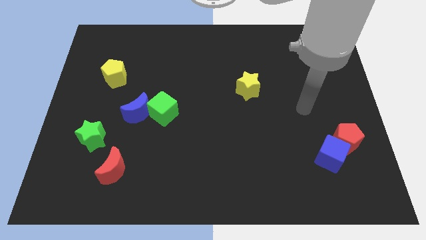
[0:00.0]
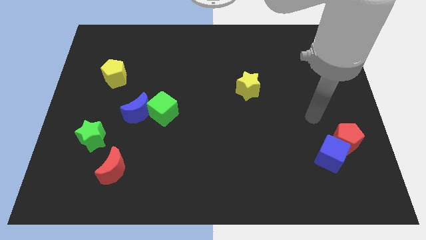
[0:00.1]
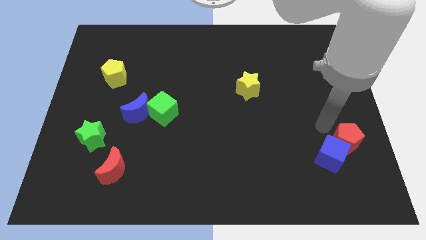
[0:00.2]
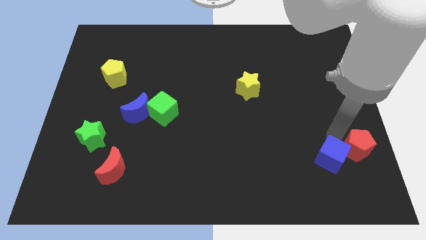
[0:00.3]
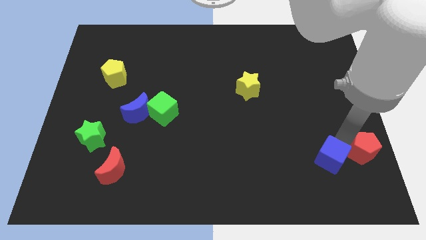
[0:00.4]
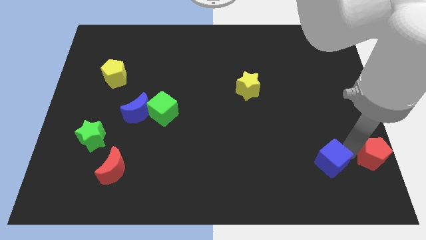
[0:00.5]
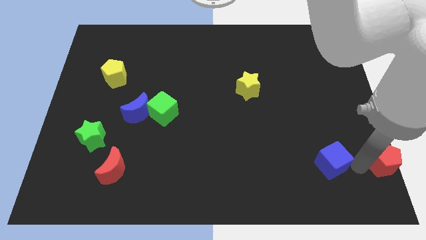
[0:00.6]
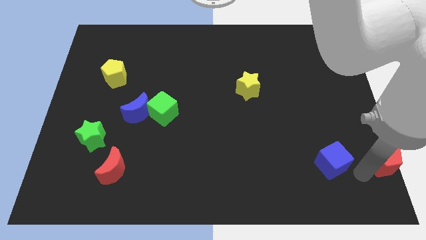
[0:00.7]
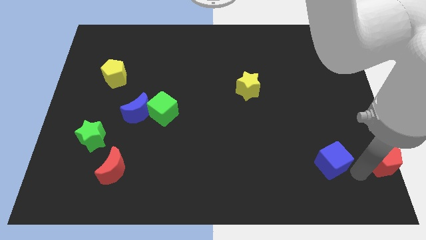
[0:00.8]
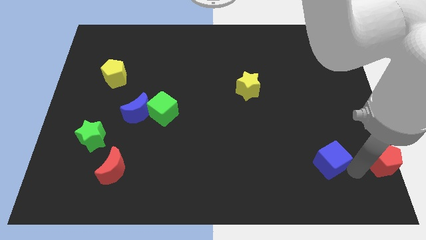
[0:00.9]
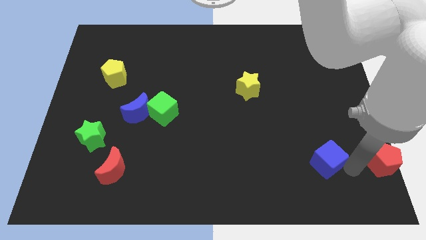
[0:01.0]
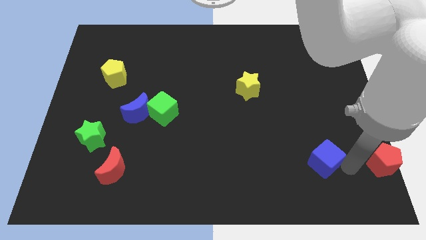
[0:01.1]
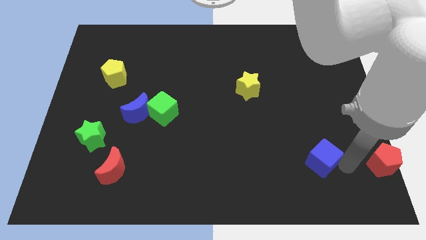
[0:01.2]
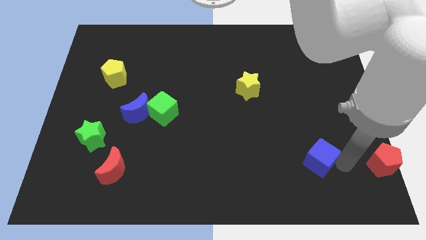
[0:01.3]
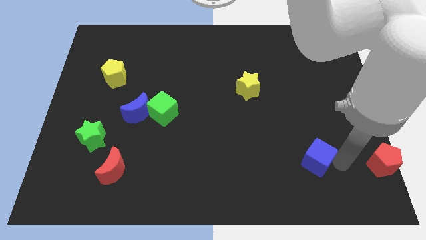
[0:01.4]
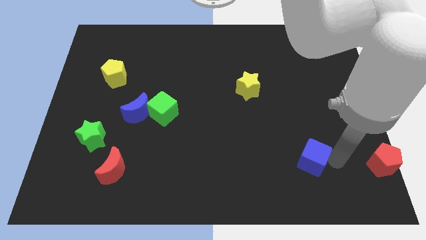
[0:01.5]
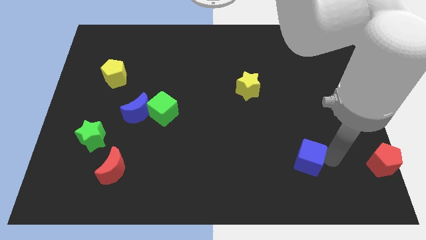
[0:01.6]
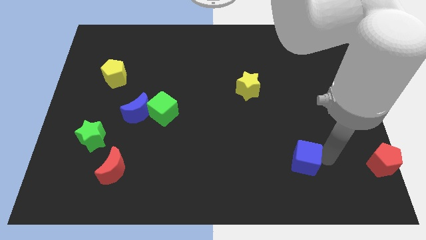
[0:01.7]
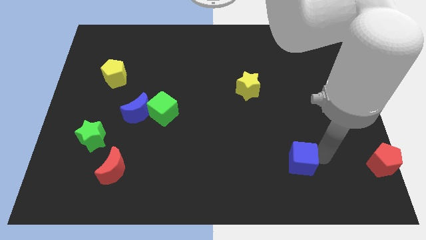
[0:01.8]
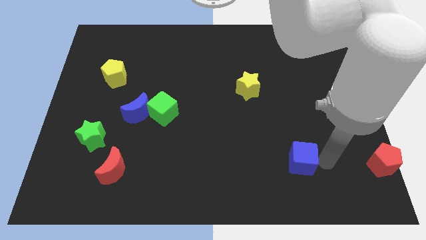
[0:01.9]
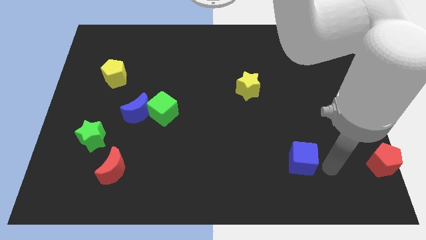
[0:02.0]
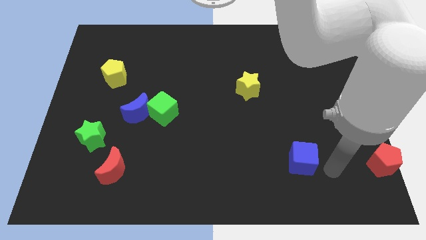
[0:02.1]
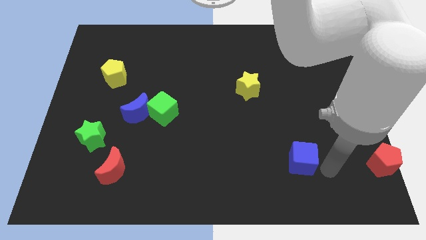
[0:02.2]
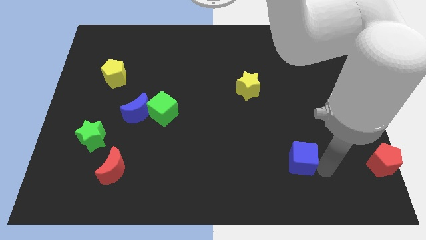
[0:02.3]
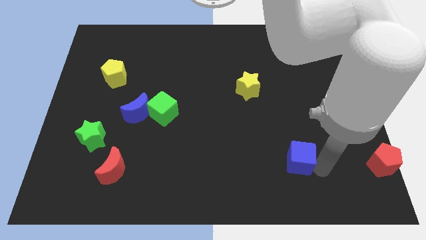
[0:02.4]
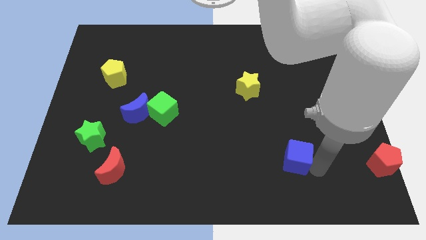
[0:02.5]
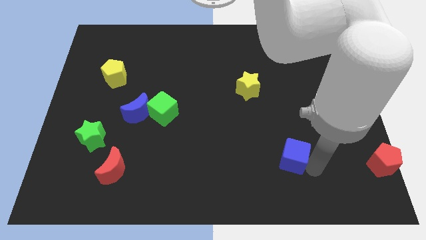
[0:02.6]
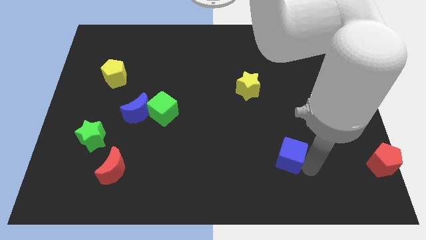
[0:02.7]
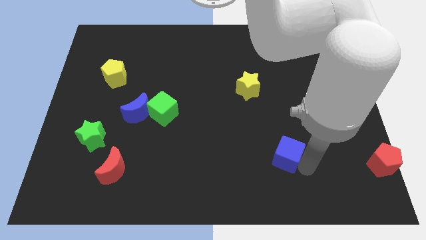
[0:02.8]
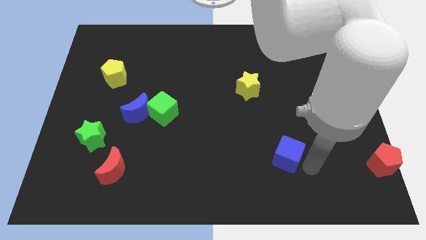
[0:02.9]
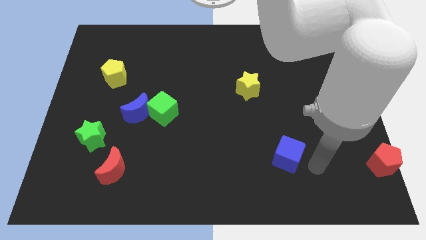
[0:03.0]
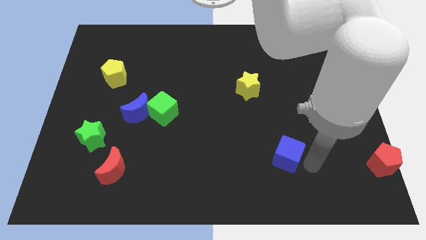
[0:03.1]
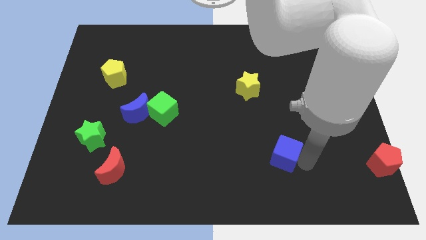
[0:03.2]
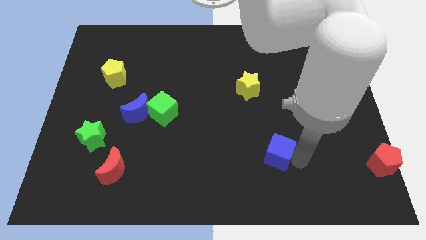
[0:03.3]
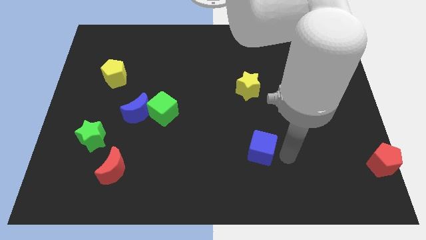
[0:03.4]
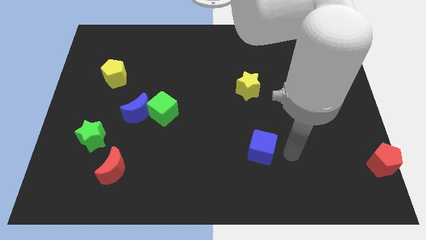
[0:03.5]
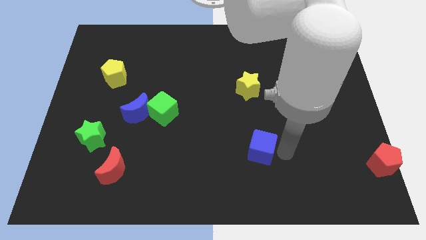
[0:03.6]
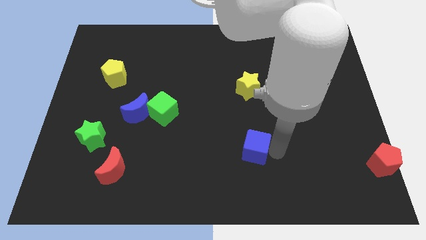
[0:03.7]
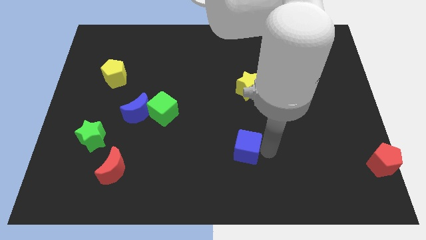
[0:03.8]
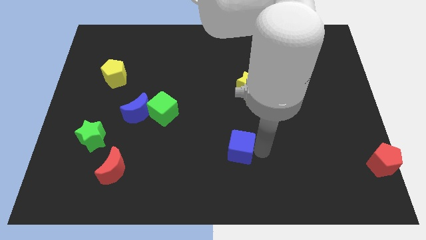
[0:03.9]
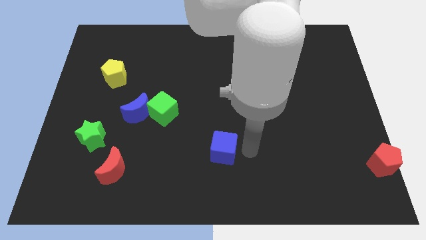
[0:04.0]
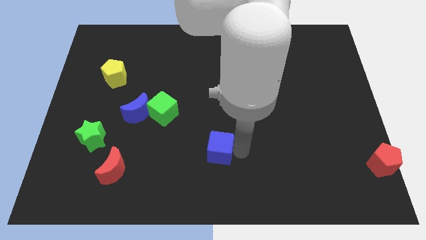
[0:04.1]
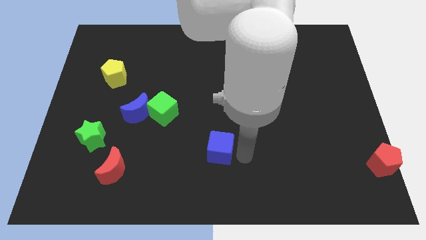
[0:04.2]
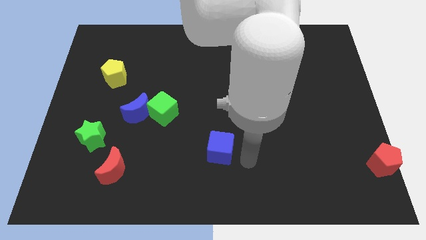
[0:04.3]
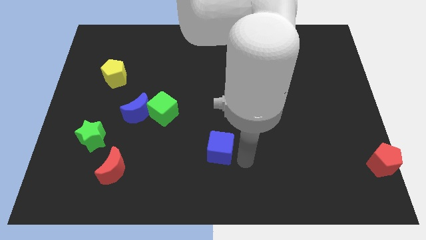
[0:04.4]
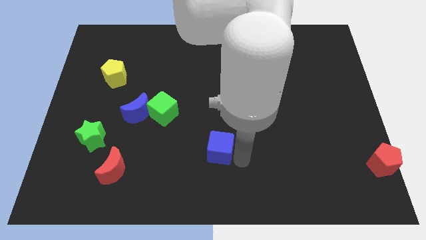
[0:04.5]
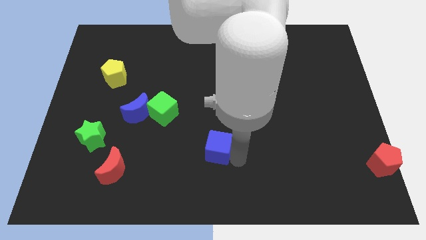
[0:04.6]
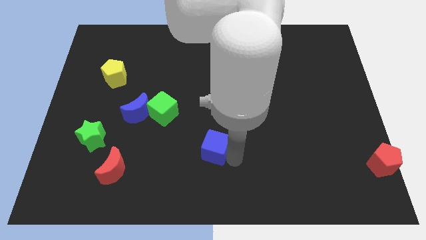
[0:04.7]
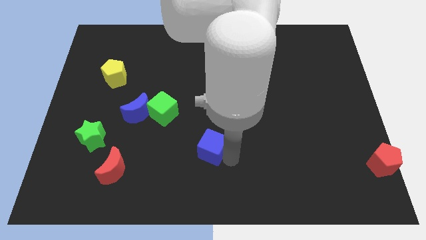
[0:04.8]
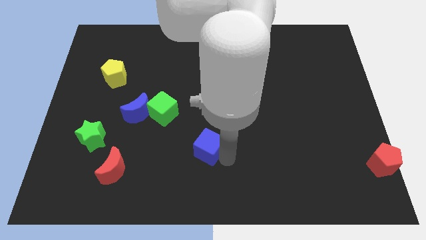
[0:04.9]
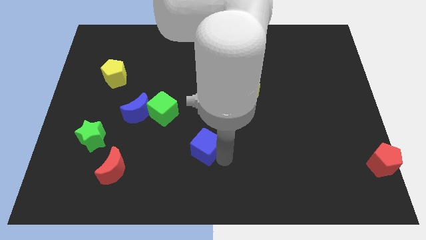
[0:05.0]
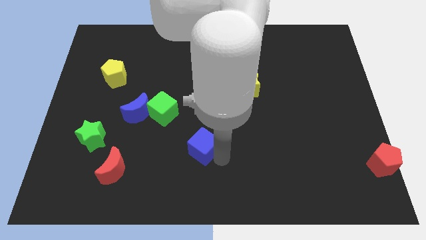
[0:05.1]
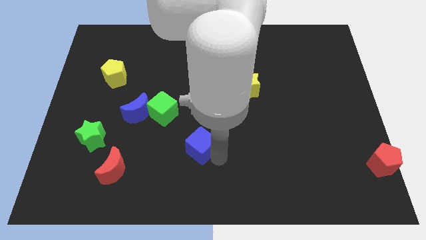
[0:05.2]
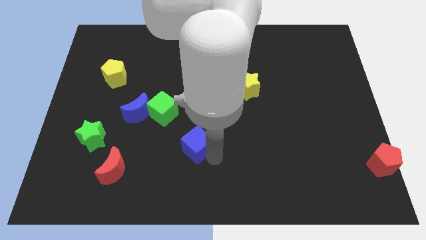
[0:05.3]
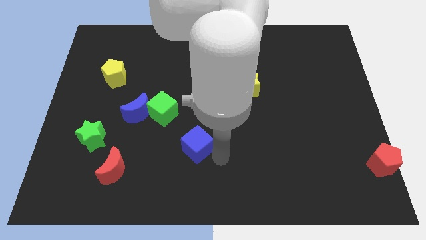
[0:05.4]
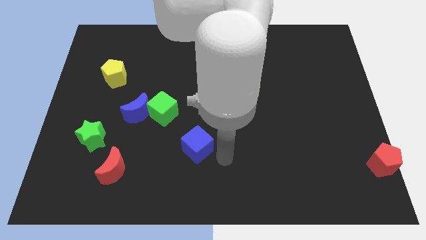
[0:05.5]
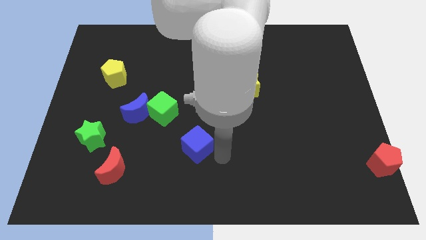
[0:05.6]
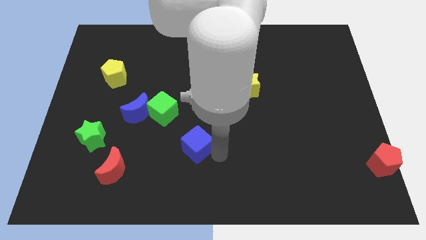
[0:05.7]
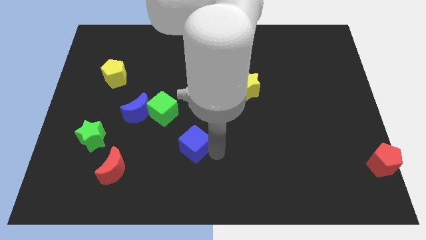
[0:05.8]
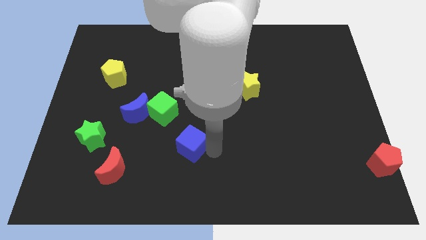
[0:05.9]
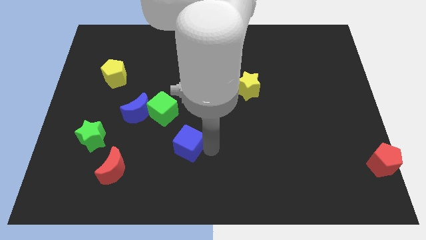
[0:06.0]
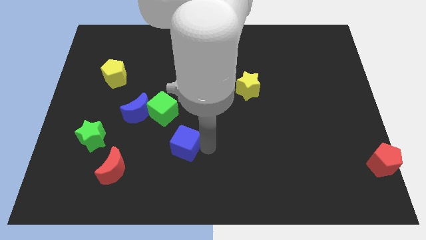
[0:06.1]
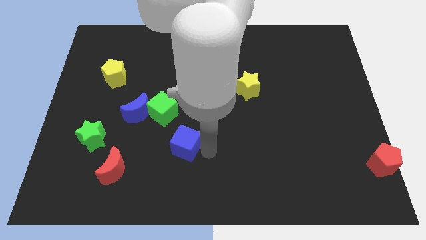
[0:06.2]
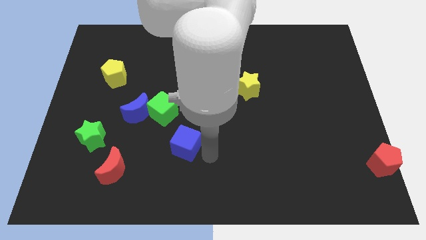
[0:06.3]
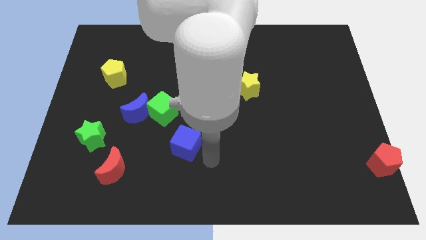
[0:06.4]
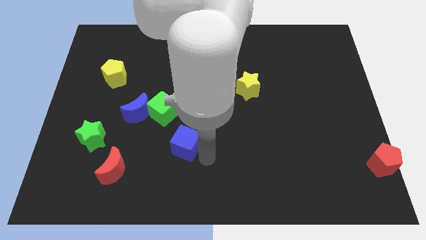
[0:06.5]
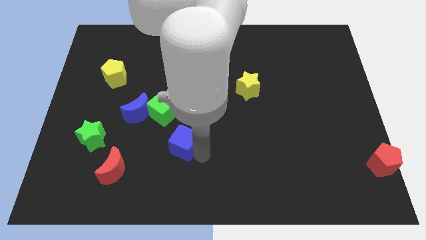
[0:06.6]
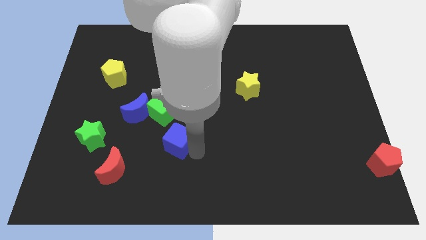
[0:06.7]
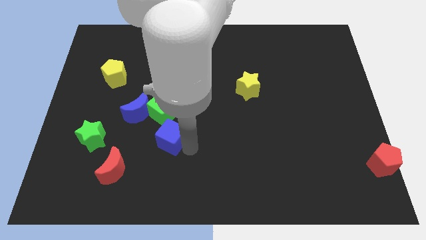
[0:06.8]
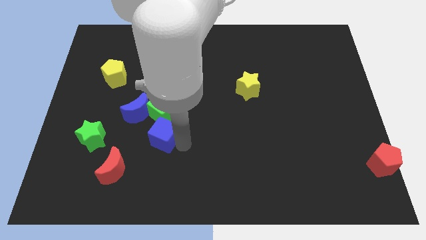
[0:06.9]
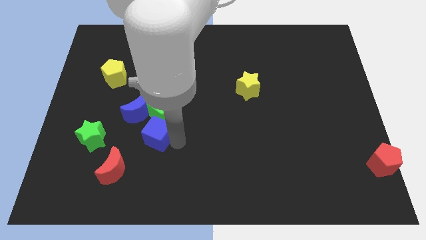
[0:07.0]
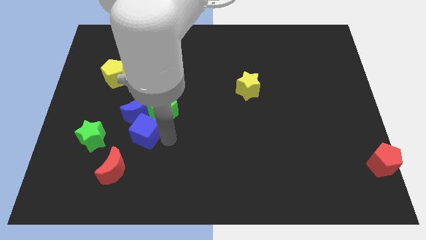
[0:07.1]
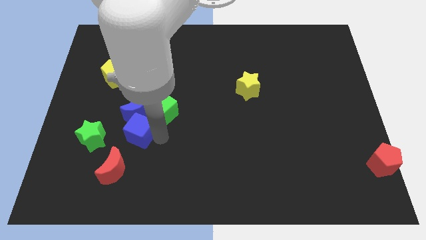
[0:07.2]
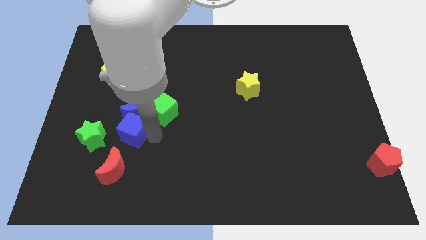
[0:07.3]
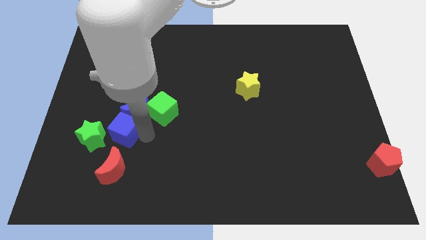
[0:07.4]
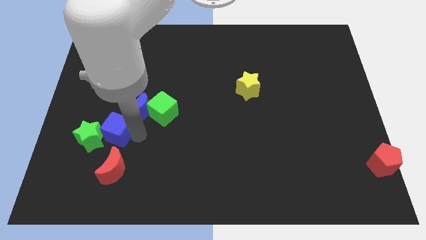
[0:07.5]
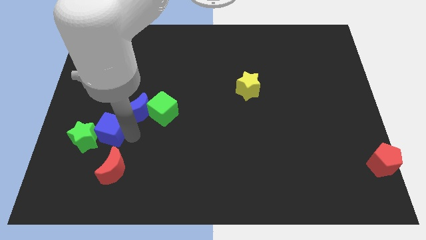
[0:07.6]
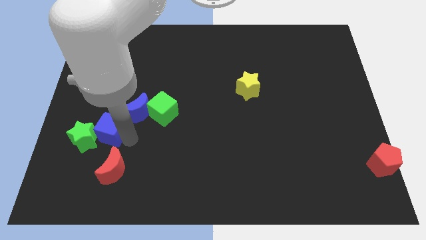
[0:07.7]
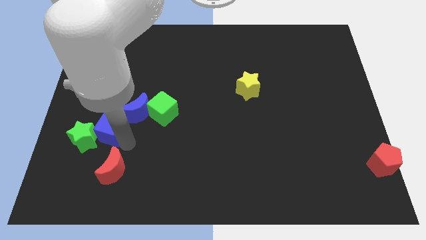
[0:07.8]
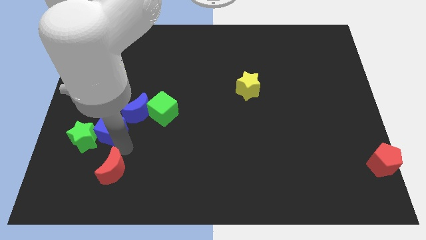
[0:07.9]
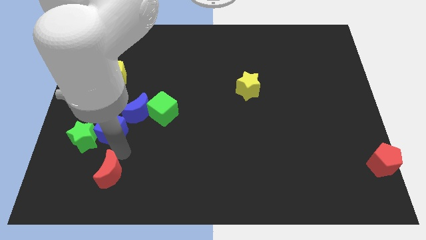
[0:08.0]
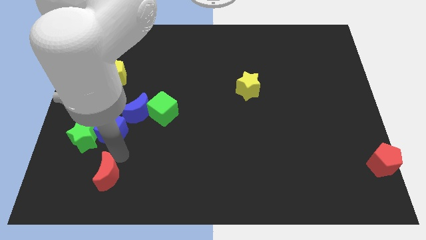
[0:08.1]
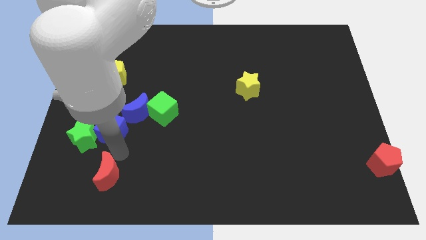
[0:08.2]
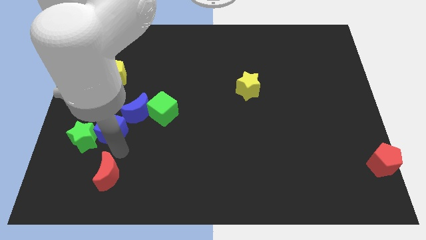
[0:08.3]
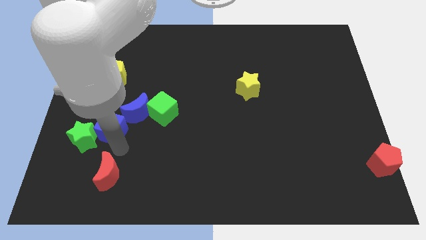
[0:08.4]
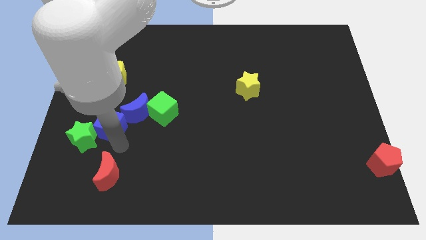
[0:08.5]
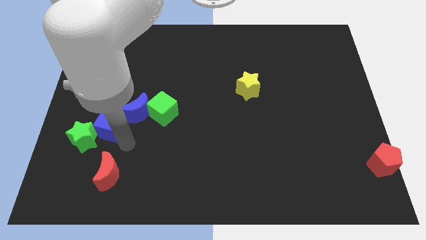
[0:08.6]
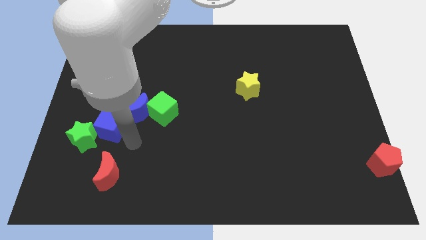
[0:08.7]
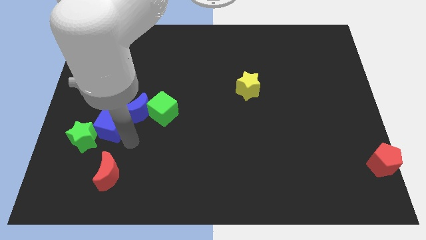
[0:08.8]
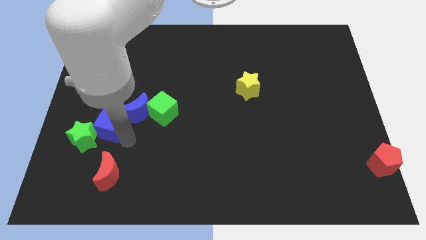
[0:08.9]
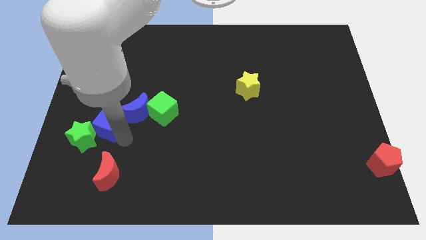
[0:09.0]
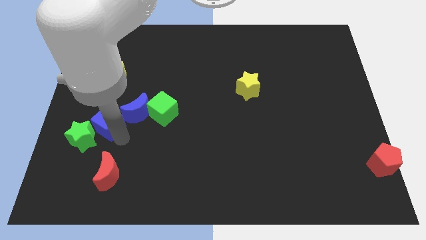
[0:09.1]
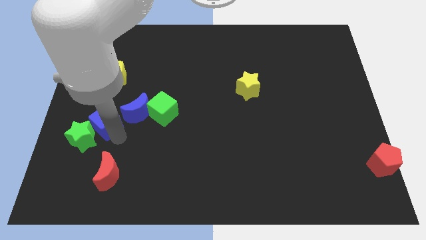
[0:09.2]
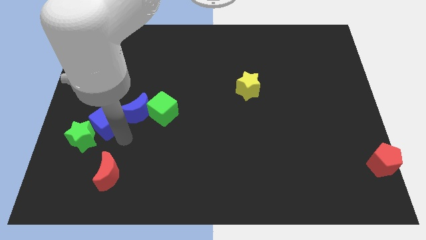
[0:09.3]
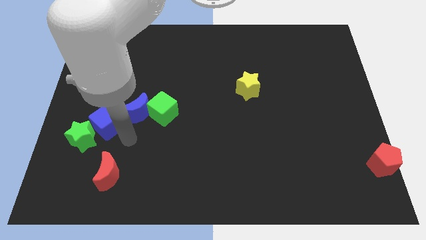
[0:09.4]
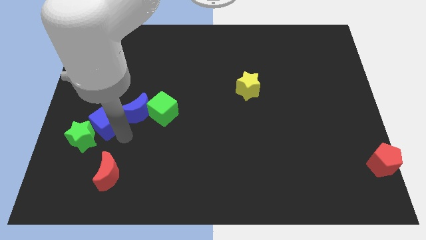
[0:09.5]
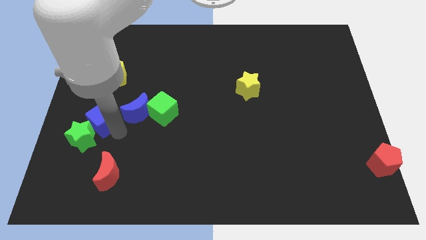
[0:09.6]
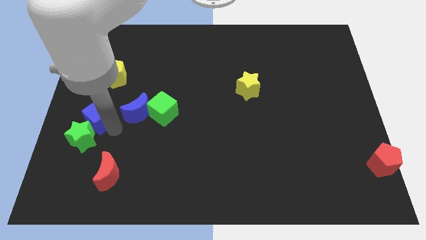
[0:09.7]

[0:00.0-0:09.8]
slide the blue cube to the left side of the board
